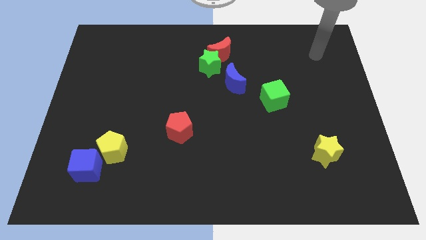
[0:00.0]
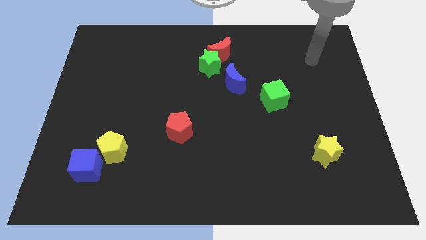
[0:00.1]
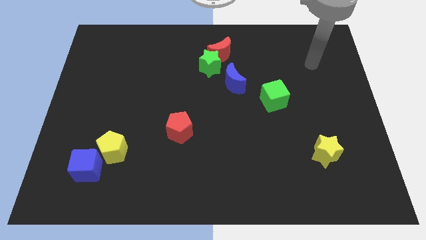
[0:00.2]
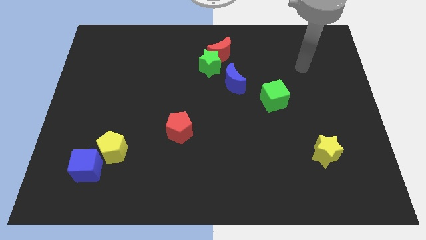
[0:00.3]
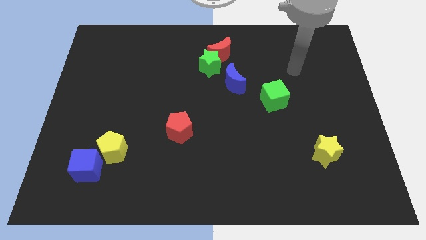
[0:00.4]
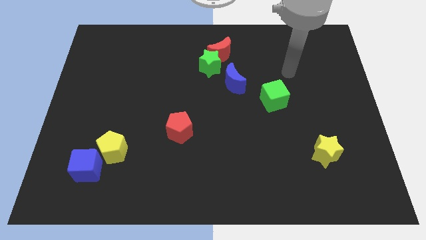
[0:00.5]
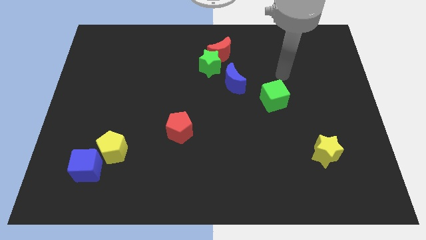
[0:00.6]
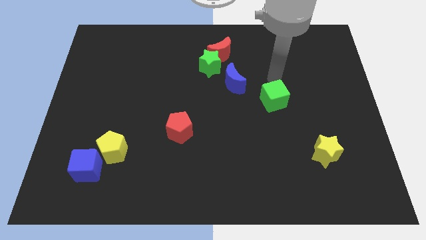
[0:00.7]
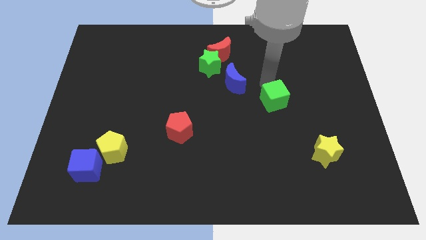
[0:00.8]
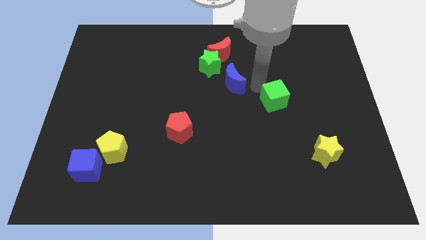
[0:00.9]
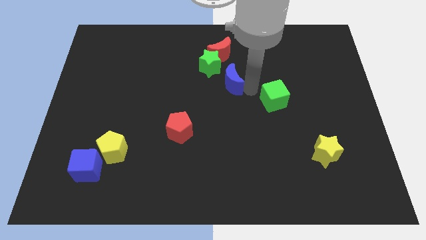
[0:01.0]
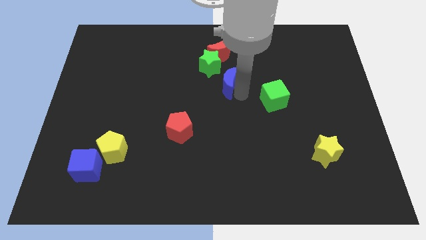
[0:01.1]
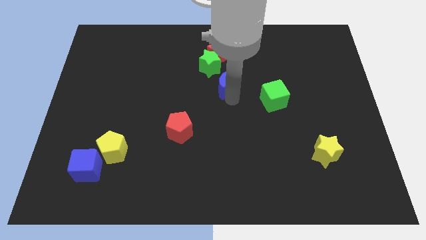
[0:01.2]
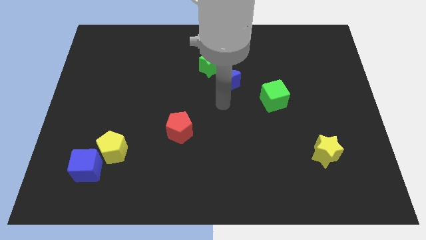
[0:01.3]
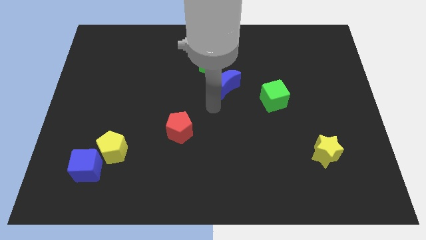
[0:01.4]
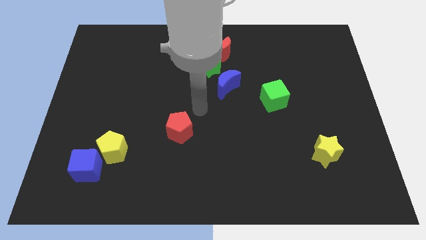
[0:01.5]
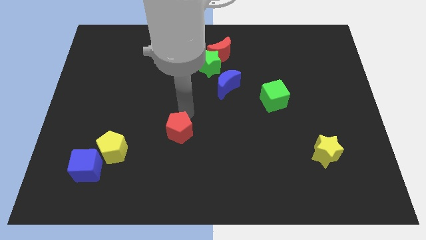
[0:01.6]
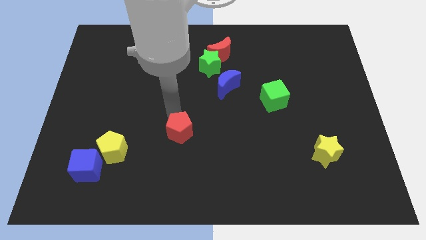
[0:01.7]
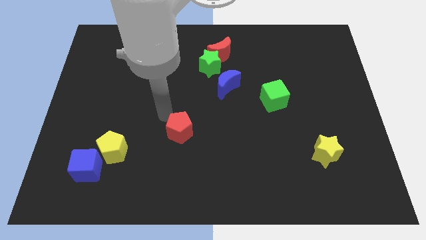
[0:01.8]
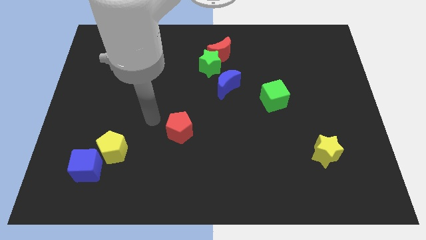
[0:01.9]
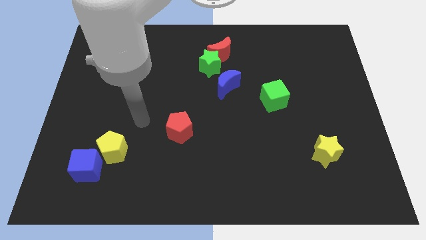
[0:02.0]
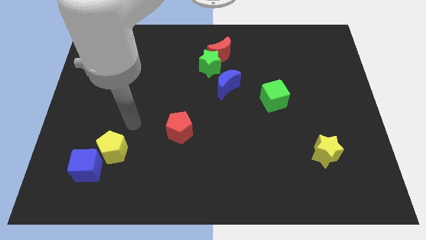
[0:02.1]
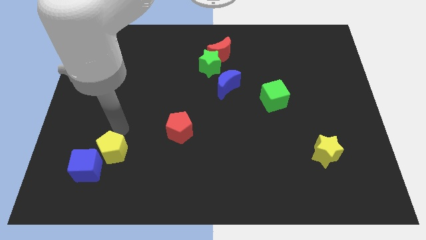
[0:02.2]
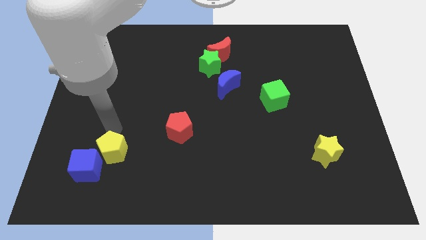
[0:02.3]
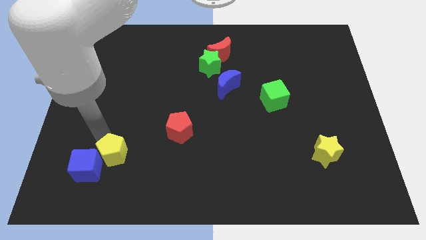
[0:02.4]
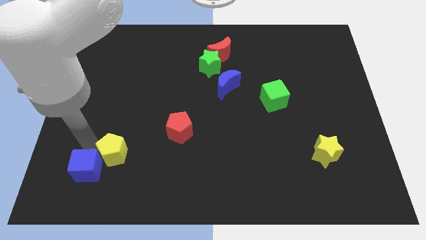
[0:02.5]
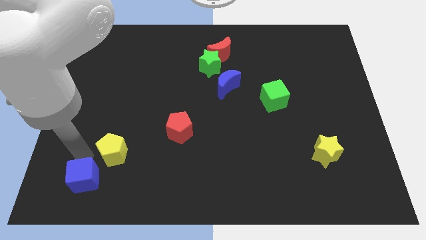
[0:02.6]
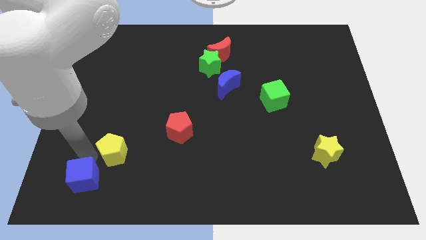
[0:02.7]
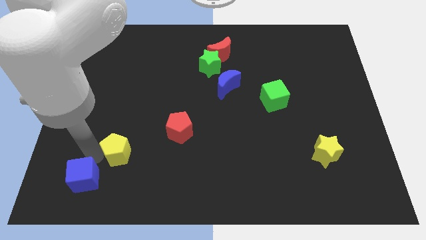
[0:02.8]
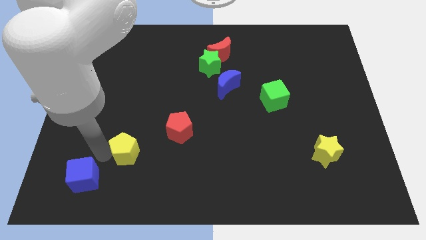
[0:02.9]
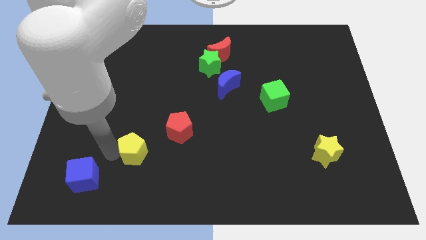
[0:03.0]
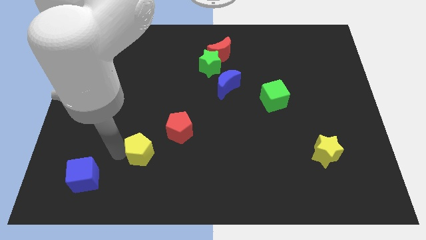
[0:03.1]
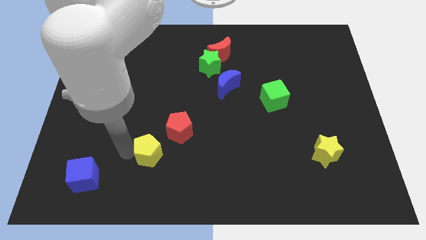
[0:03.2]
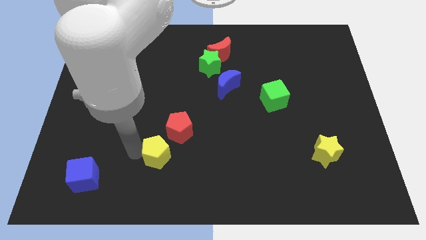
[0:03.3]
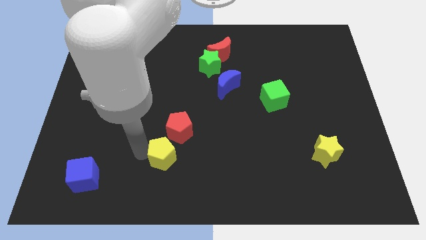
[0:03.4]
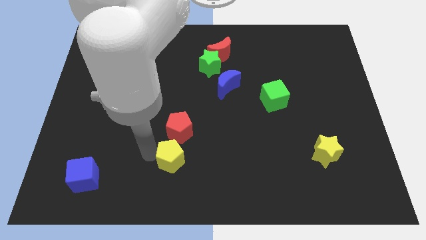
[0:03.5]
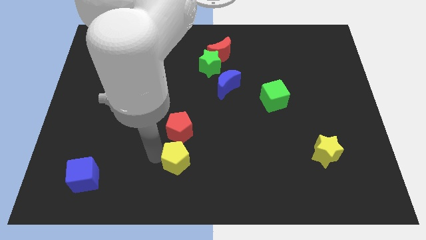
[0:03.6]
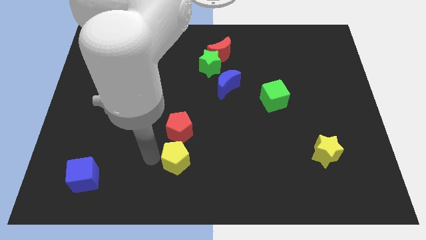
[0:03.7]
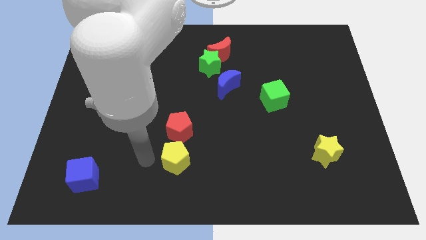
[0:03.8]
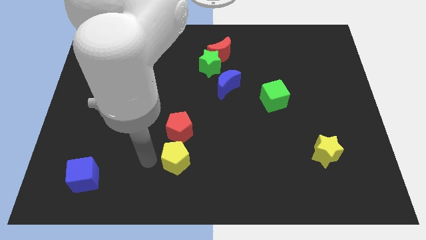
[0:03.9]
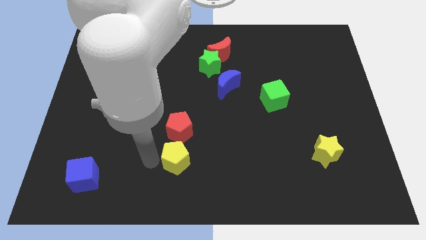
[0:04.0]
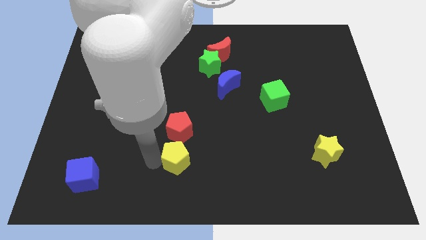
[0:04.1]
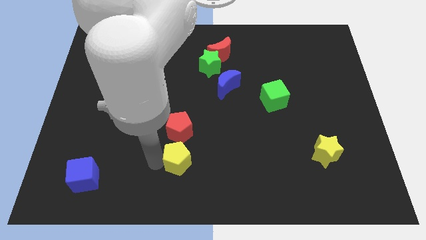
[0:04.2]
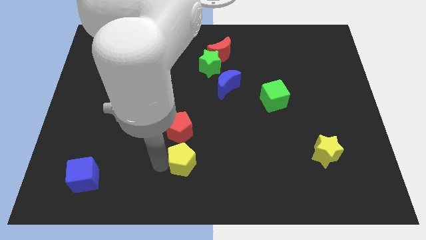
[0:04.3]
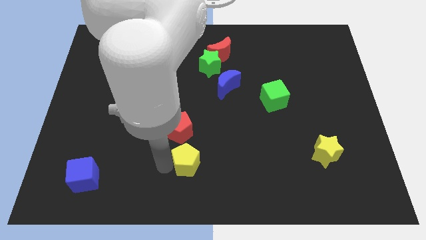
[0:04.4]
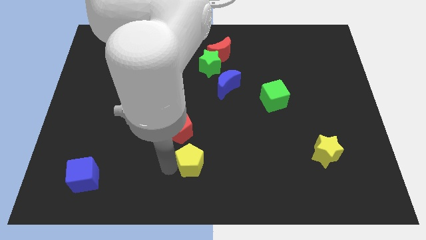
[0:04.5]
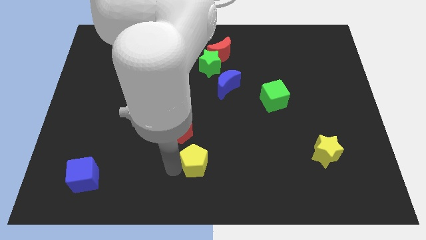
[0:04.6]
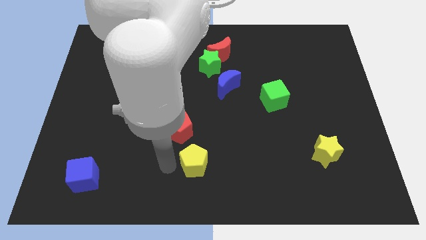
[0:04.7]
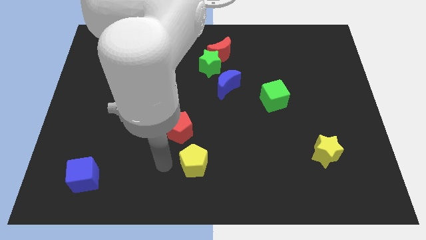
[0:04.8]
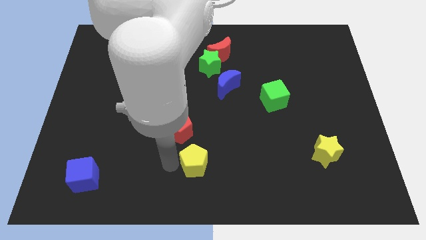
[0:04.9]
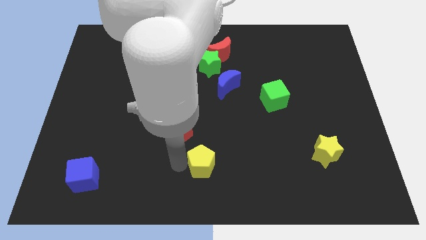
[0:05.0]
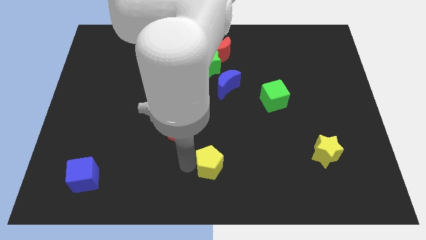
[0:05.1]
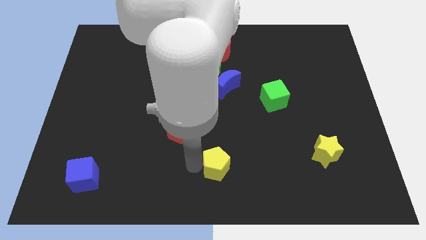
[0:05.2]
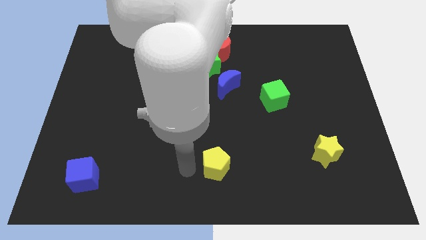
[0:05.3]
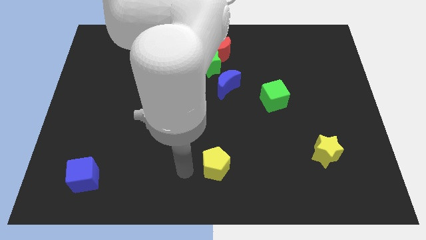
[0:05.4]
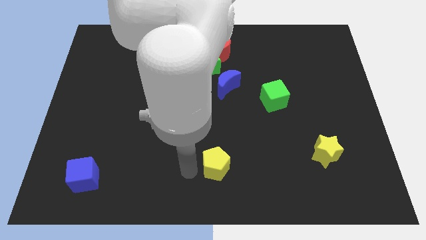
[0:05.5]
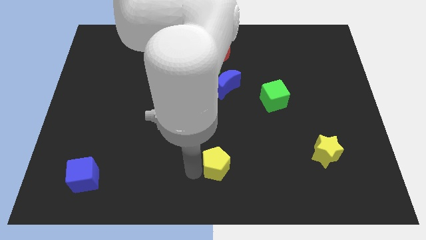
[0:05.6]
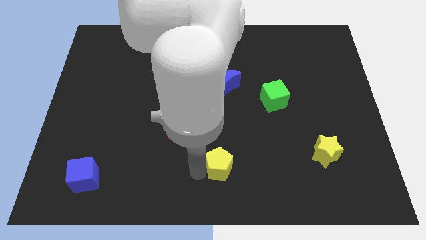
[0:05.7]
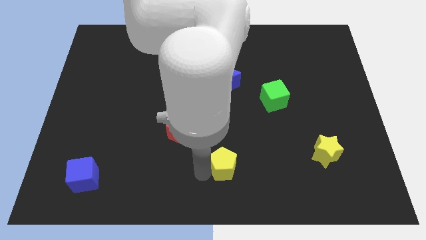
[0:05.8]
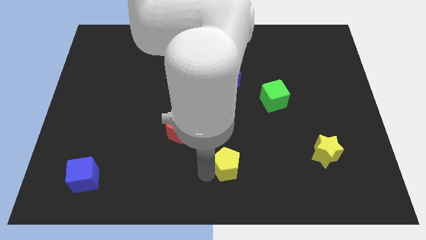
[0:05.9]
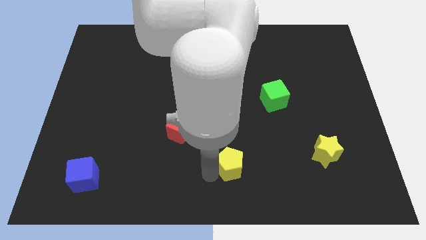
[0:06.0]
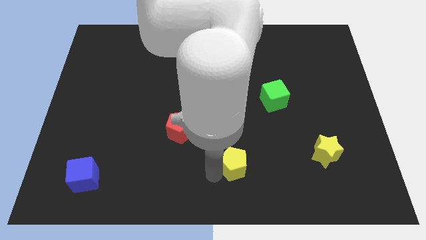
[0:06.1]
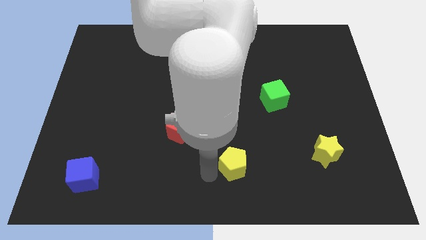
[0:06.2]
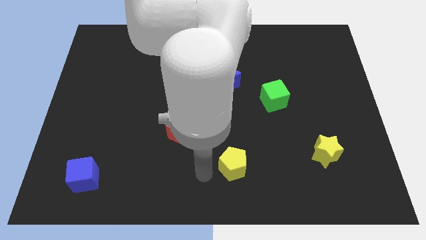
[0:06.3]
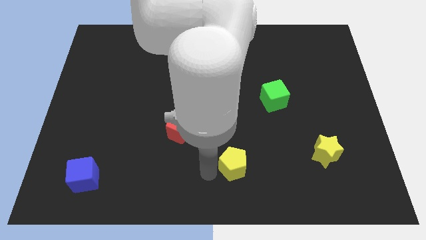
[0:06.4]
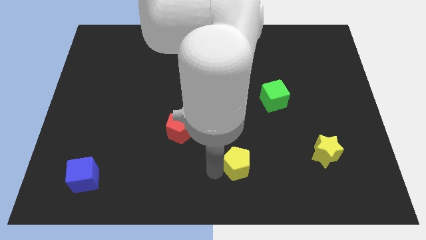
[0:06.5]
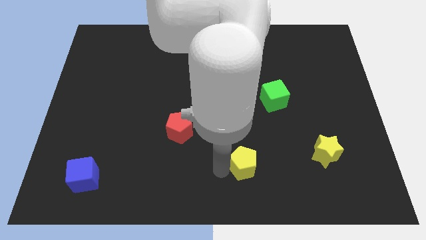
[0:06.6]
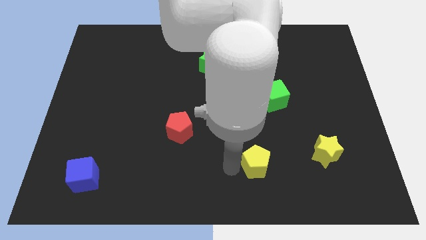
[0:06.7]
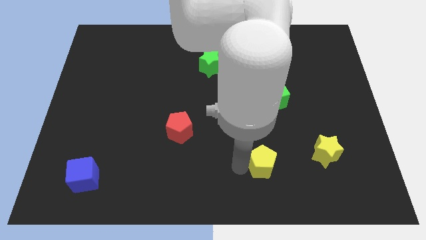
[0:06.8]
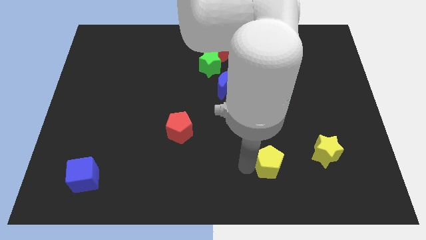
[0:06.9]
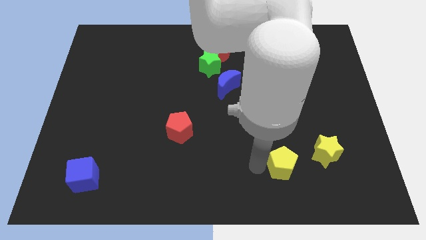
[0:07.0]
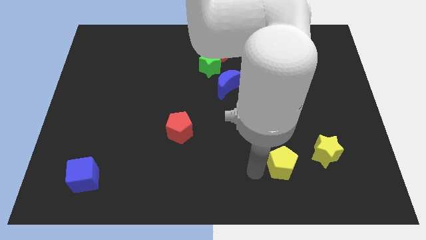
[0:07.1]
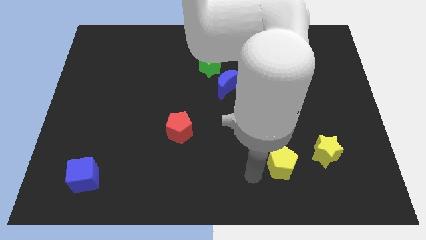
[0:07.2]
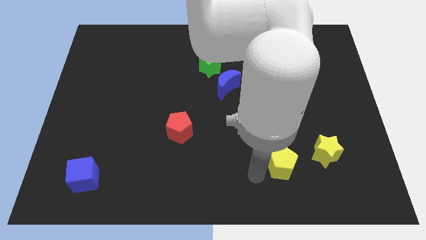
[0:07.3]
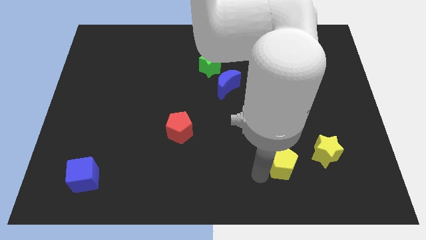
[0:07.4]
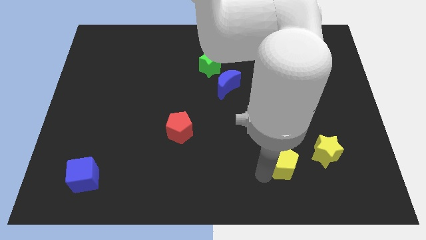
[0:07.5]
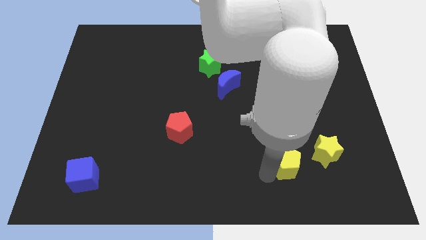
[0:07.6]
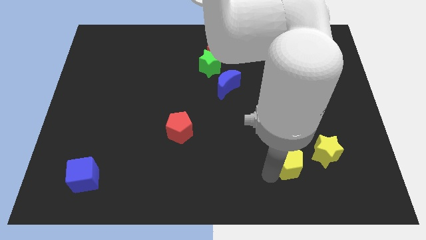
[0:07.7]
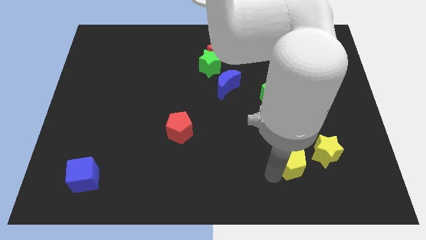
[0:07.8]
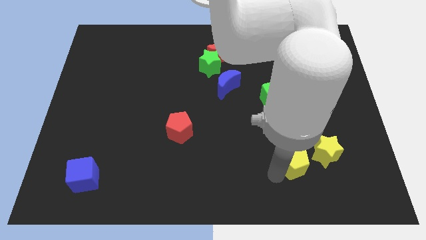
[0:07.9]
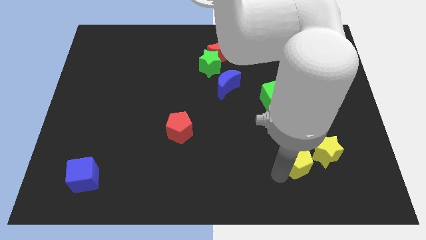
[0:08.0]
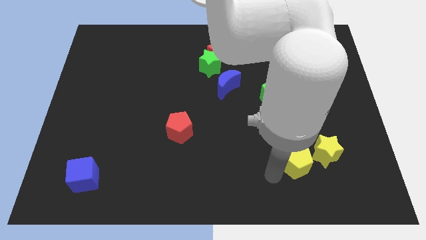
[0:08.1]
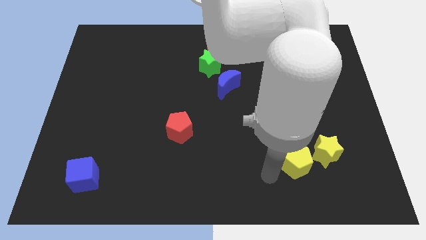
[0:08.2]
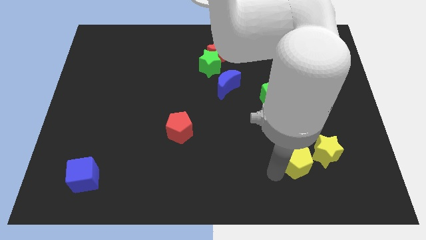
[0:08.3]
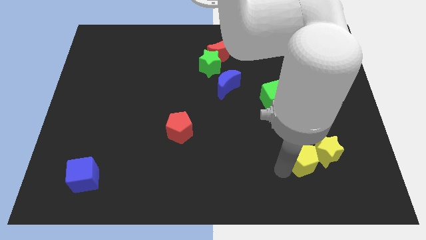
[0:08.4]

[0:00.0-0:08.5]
push the yellow pentagon close to the yellow star
